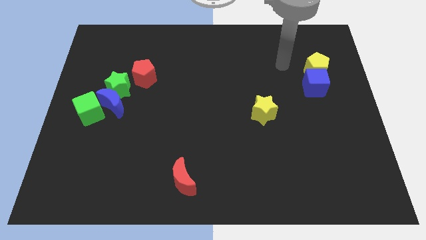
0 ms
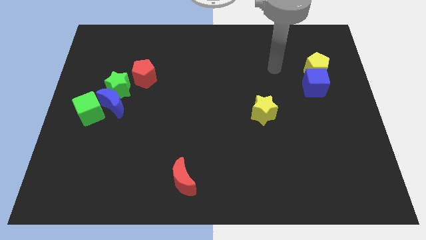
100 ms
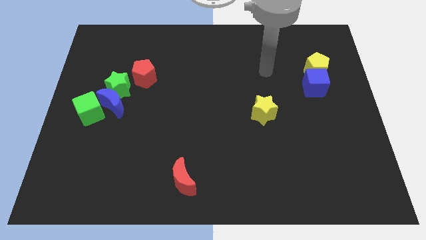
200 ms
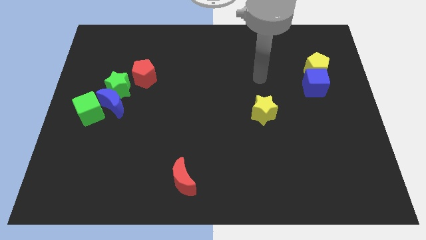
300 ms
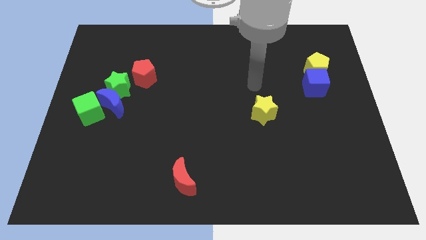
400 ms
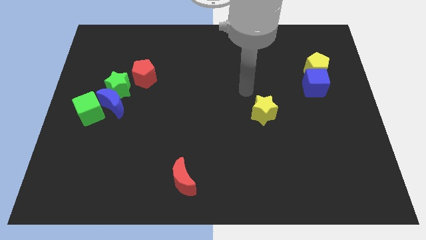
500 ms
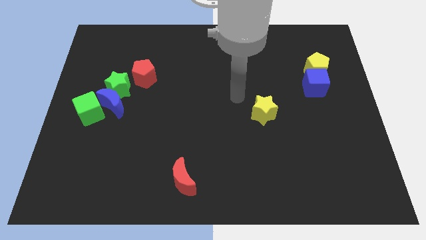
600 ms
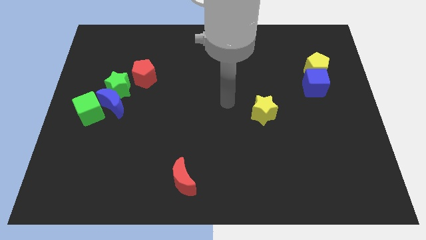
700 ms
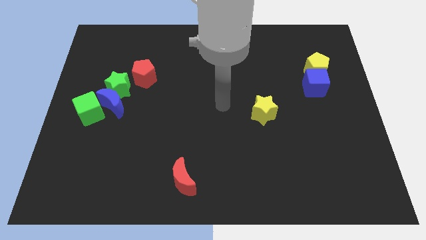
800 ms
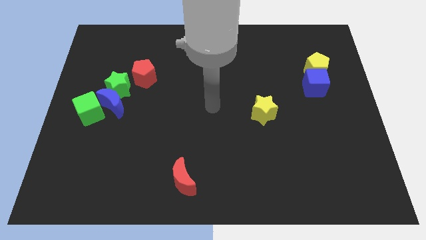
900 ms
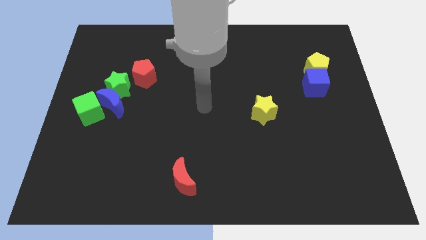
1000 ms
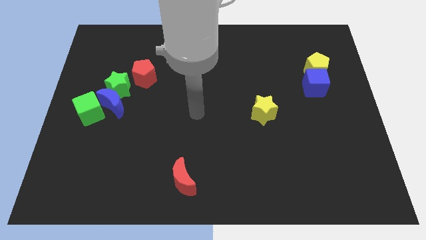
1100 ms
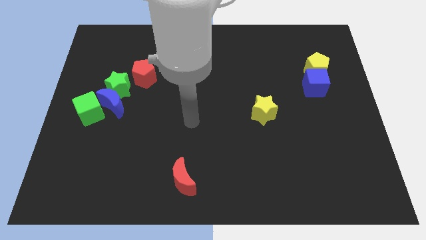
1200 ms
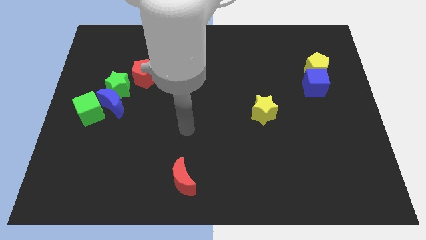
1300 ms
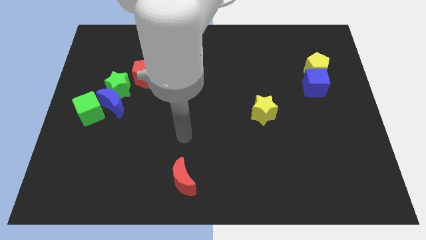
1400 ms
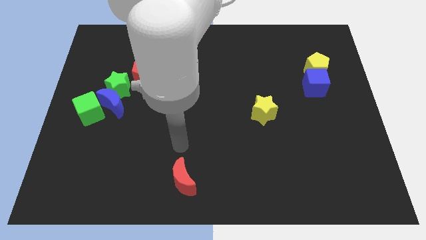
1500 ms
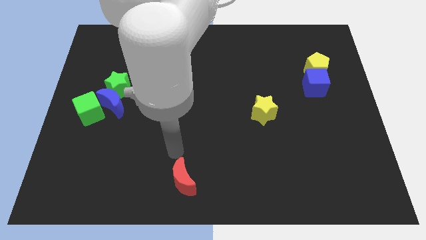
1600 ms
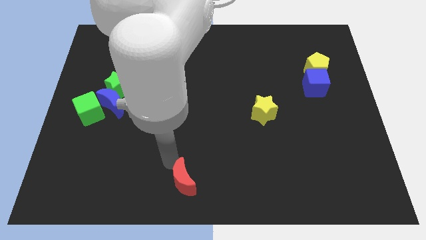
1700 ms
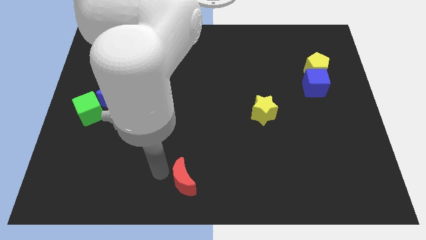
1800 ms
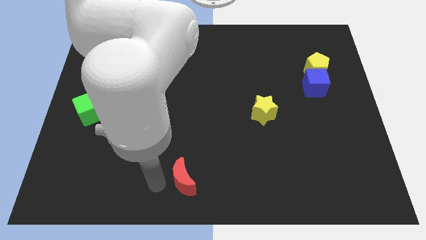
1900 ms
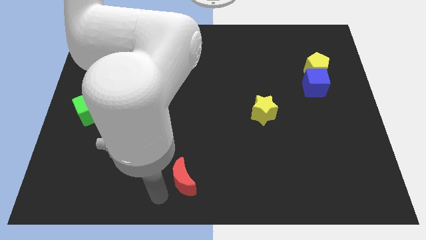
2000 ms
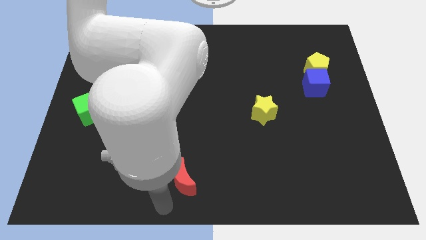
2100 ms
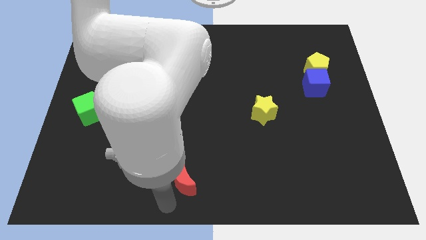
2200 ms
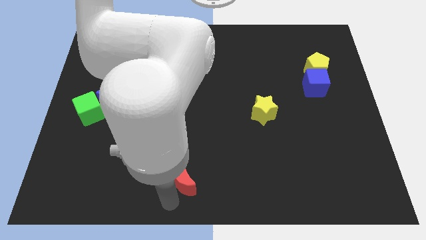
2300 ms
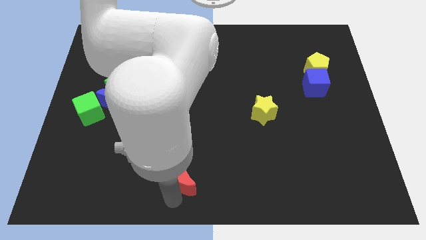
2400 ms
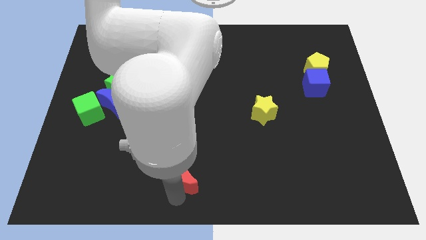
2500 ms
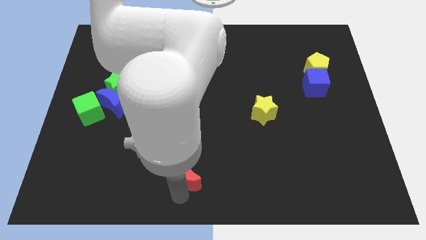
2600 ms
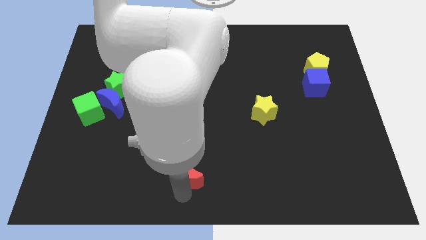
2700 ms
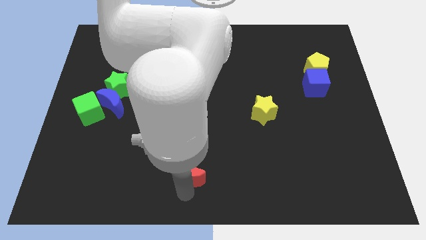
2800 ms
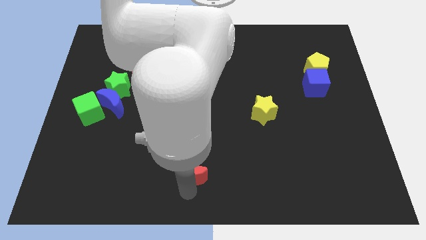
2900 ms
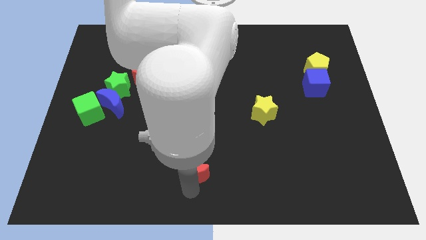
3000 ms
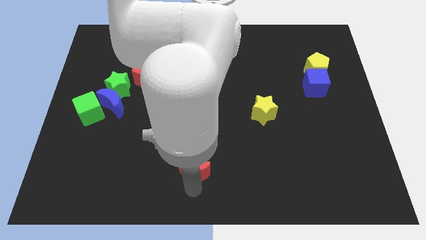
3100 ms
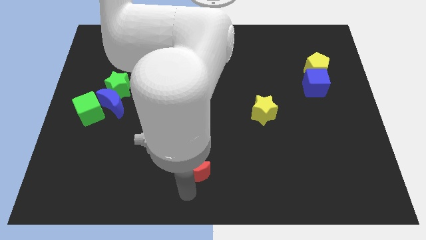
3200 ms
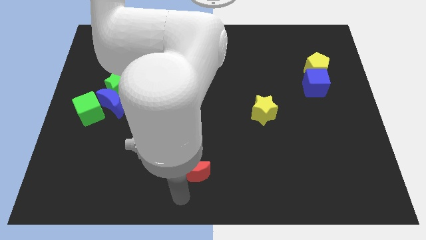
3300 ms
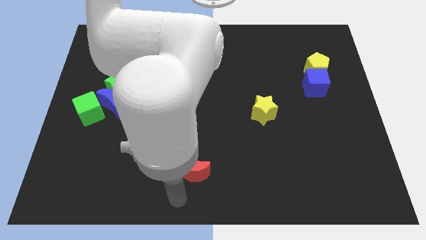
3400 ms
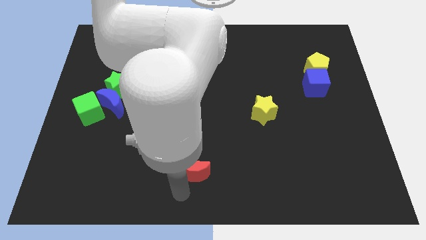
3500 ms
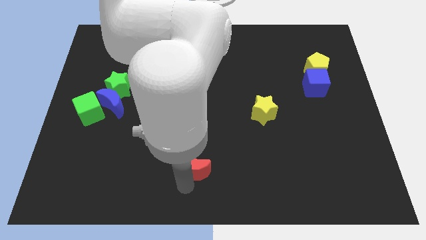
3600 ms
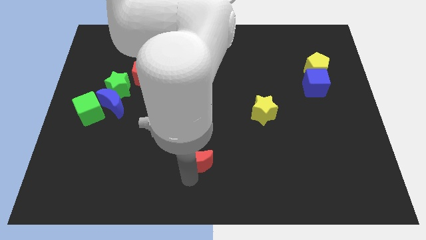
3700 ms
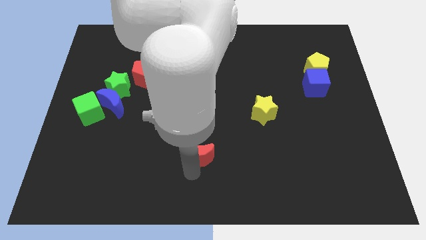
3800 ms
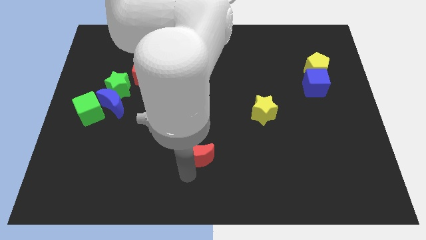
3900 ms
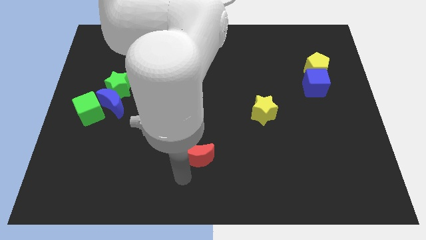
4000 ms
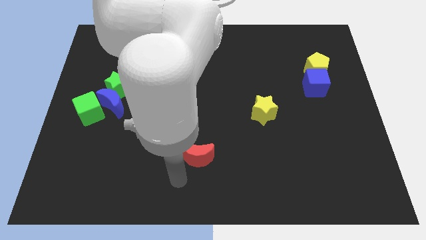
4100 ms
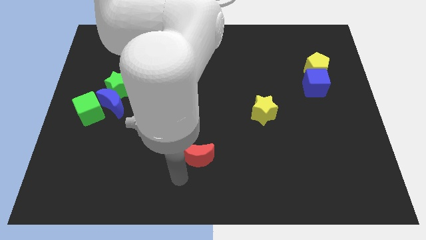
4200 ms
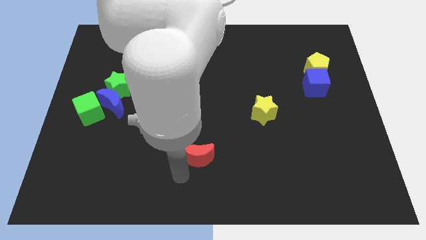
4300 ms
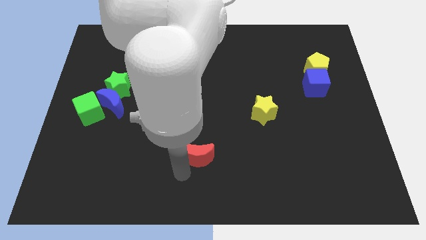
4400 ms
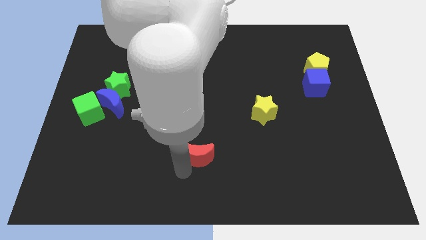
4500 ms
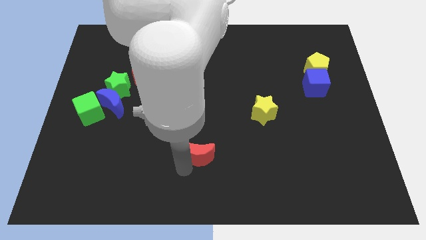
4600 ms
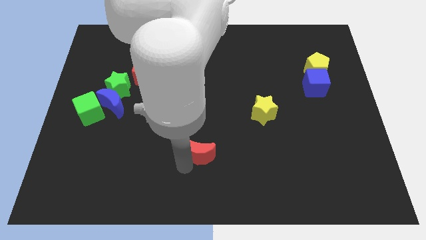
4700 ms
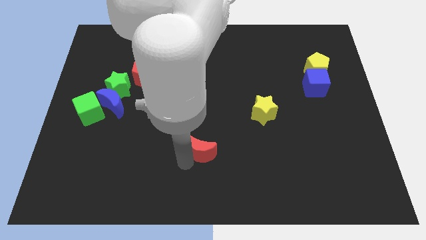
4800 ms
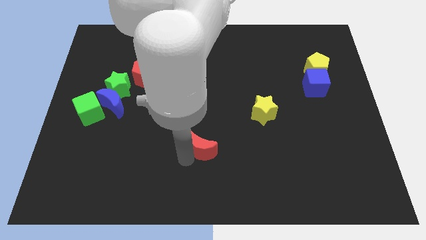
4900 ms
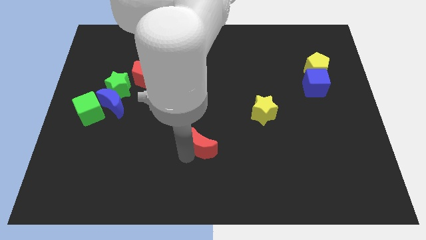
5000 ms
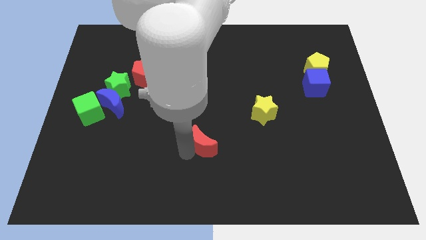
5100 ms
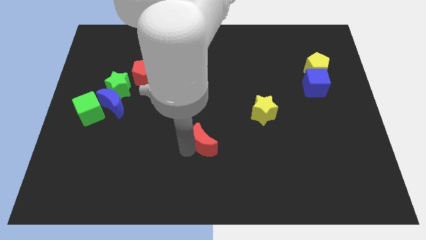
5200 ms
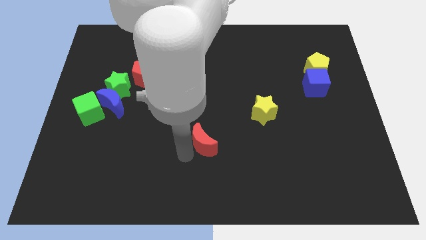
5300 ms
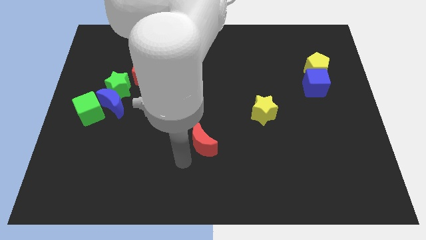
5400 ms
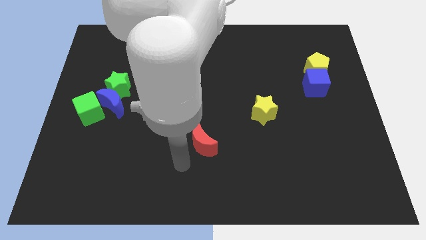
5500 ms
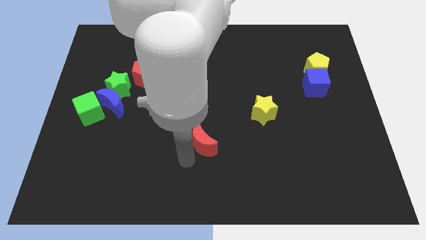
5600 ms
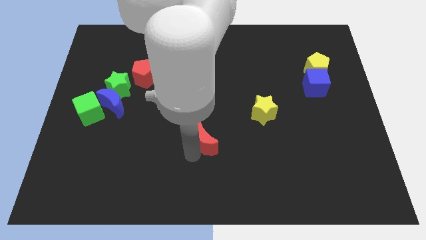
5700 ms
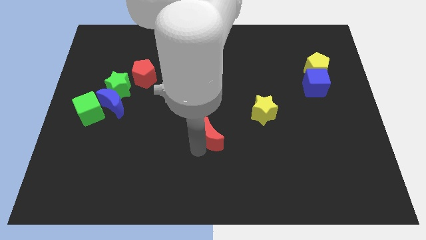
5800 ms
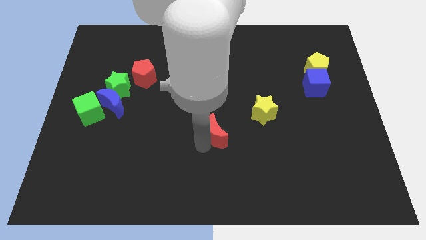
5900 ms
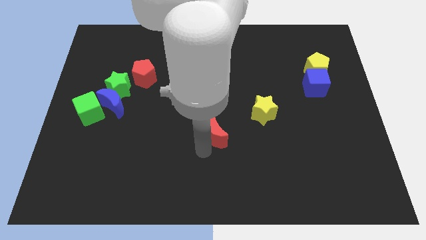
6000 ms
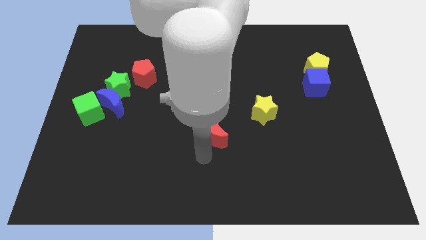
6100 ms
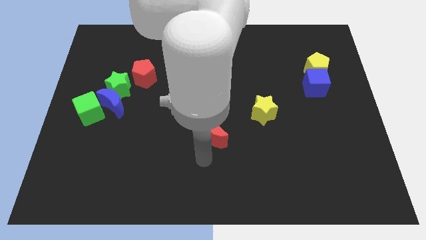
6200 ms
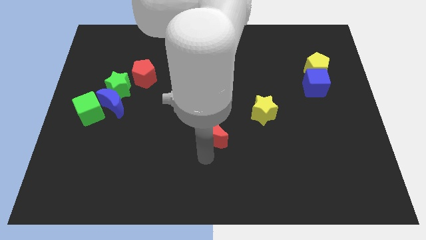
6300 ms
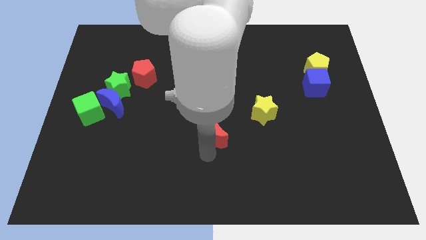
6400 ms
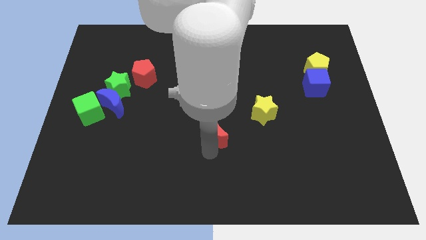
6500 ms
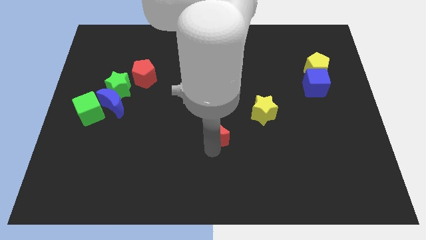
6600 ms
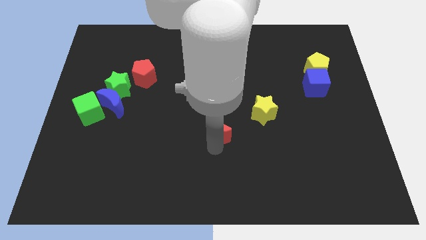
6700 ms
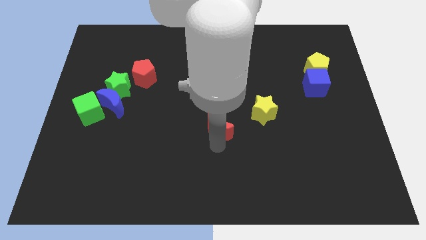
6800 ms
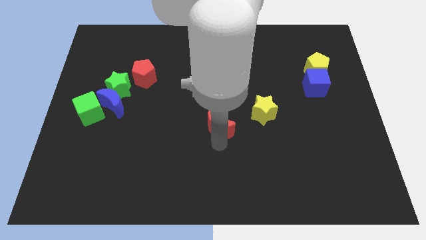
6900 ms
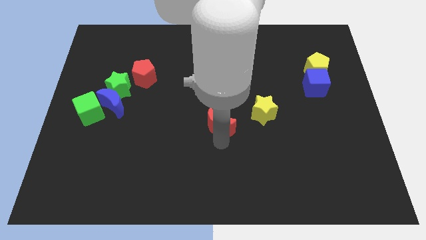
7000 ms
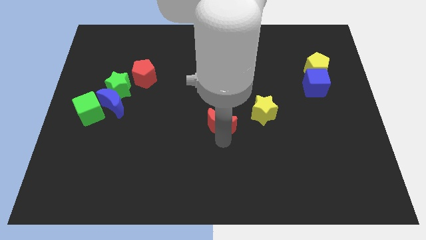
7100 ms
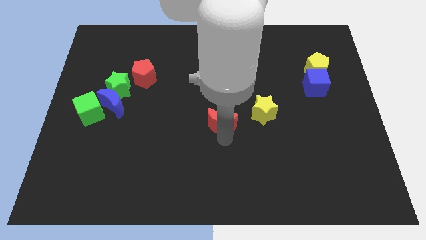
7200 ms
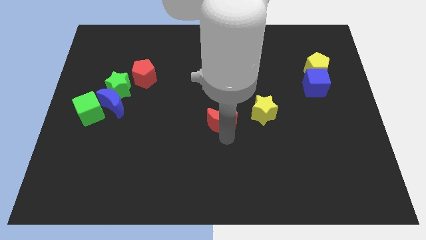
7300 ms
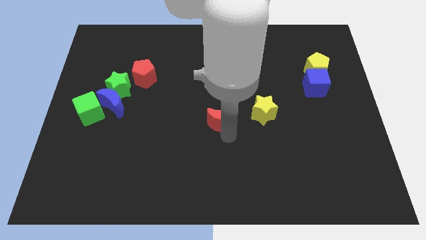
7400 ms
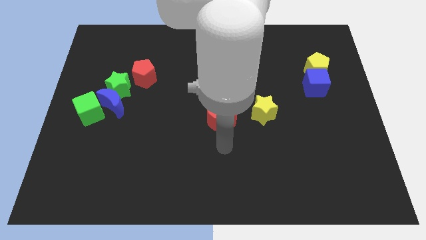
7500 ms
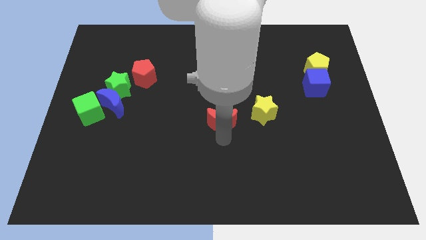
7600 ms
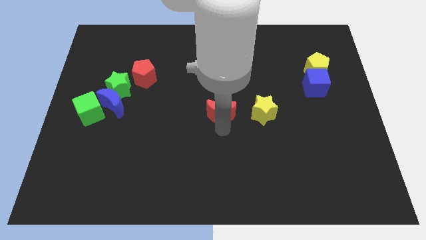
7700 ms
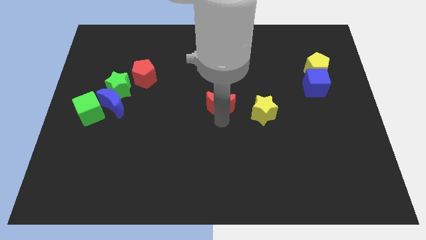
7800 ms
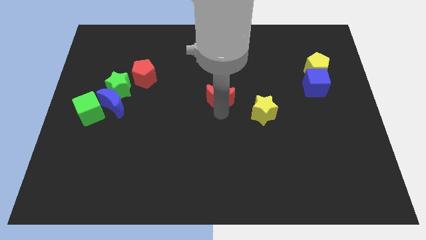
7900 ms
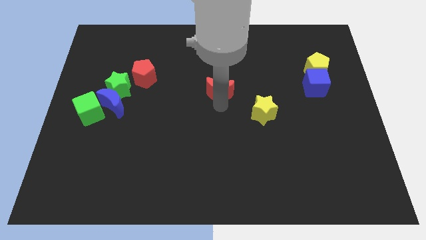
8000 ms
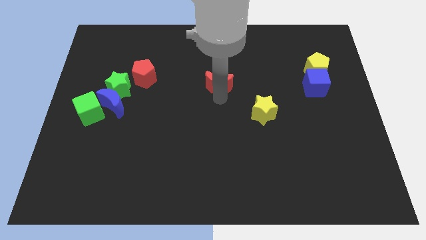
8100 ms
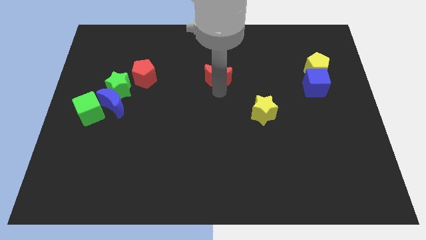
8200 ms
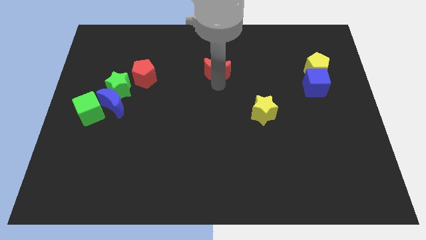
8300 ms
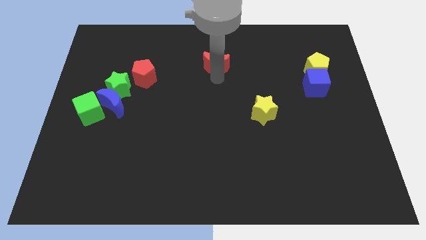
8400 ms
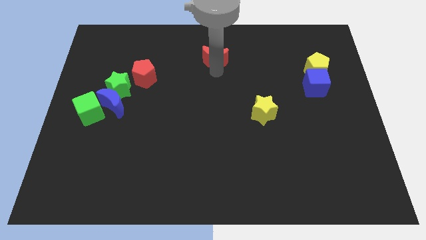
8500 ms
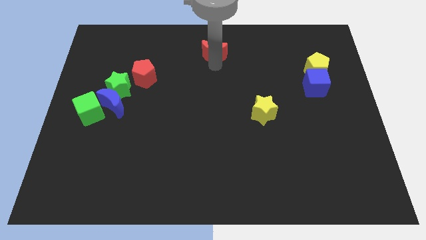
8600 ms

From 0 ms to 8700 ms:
move the red moon to the top
